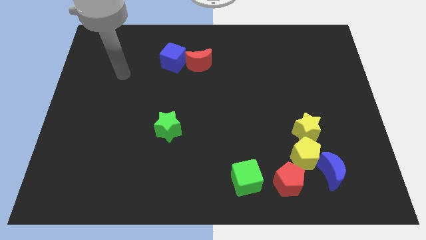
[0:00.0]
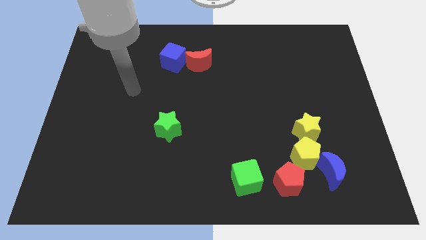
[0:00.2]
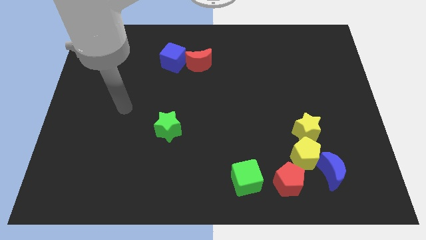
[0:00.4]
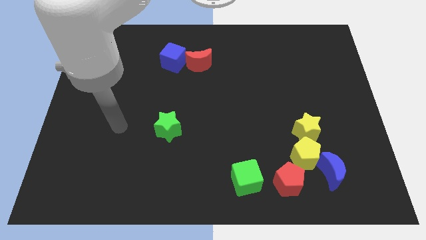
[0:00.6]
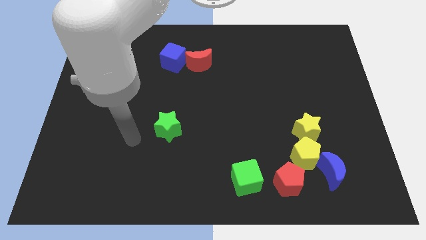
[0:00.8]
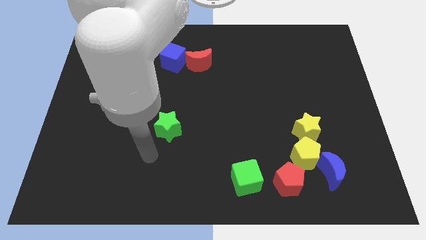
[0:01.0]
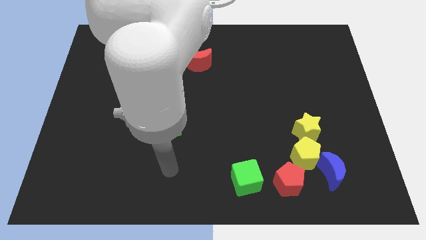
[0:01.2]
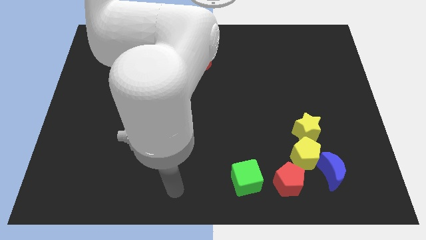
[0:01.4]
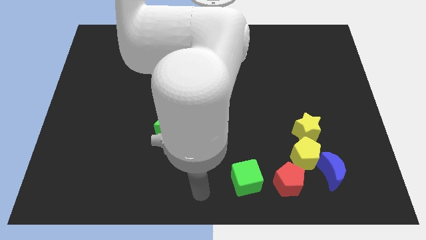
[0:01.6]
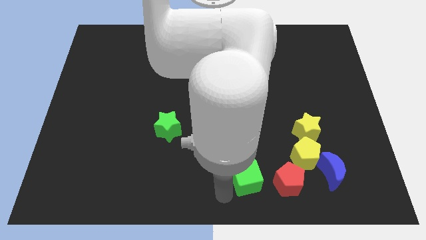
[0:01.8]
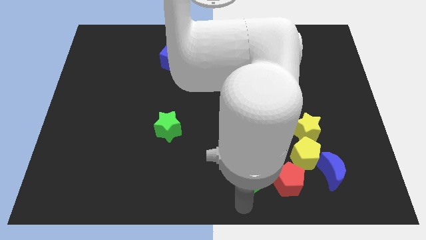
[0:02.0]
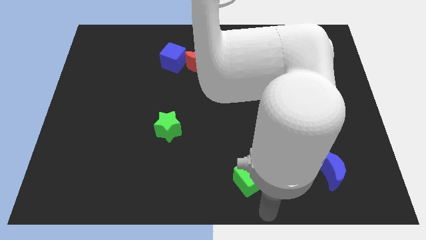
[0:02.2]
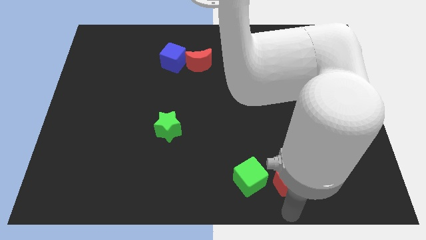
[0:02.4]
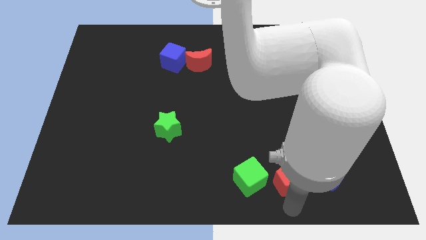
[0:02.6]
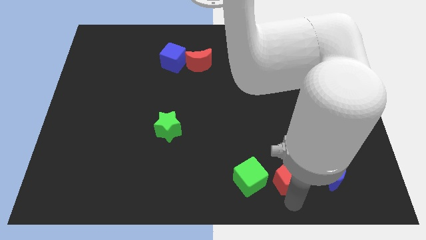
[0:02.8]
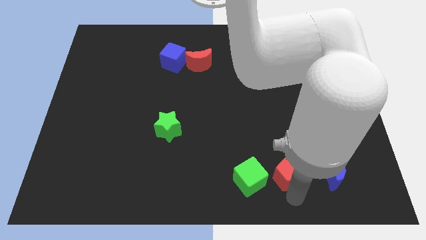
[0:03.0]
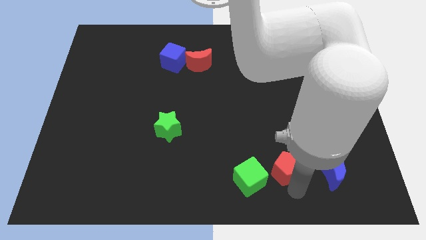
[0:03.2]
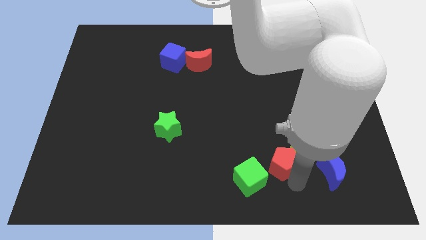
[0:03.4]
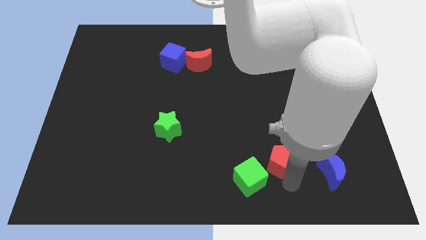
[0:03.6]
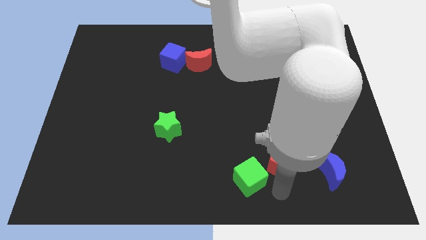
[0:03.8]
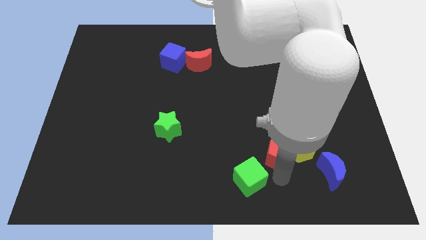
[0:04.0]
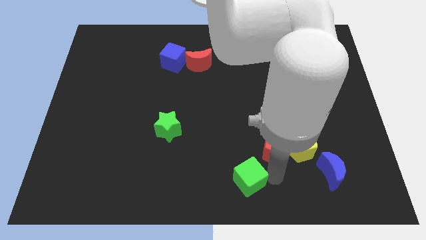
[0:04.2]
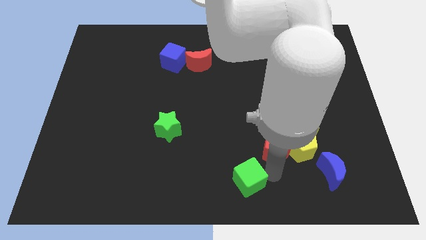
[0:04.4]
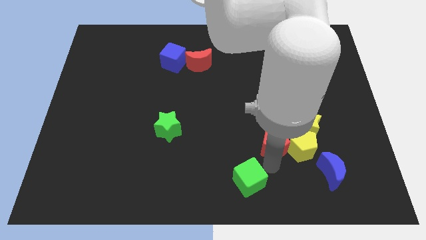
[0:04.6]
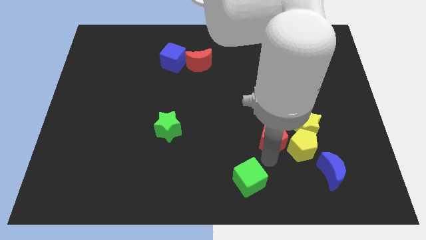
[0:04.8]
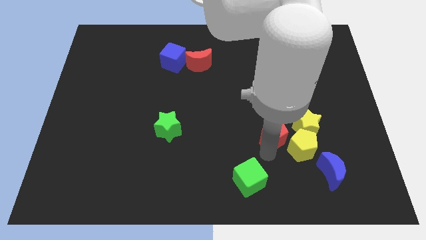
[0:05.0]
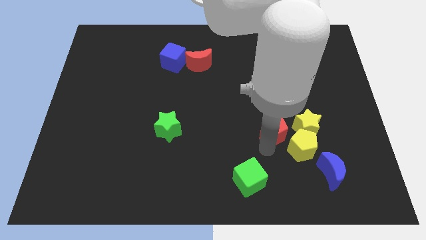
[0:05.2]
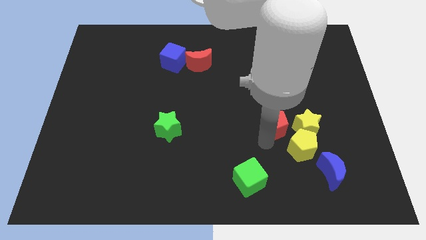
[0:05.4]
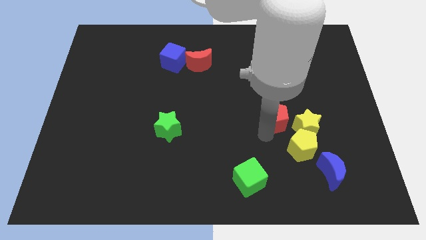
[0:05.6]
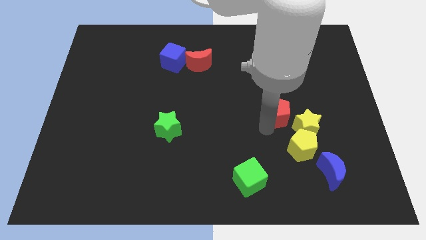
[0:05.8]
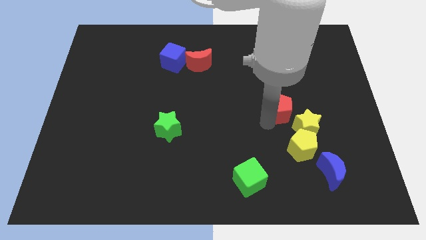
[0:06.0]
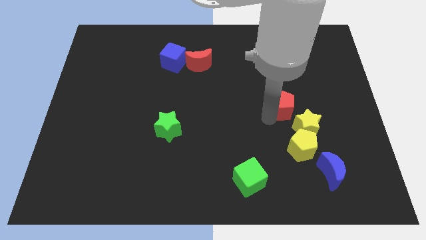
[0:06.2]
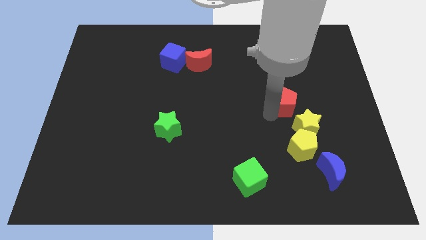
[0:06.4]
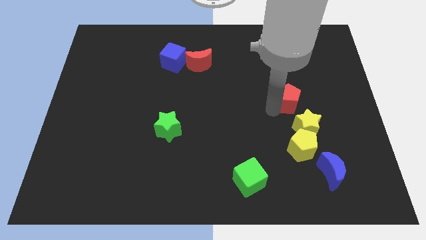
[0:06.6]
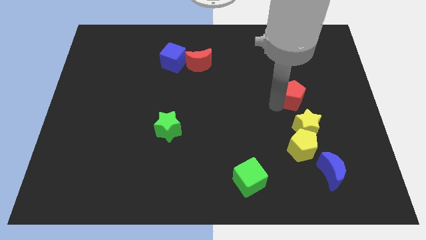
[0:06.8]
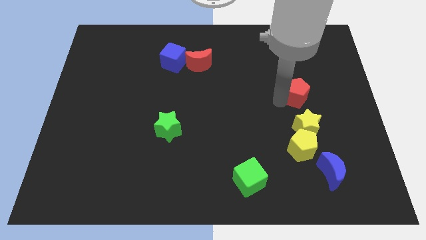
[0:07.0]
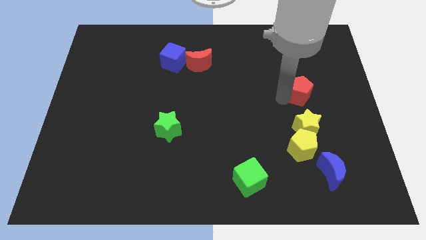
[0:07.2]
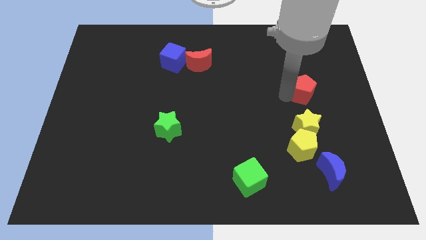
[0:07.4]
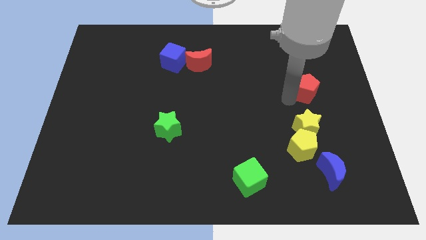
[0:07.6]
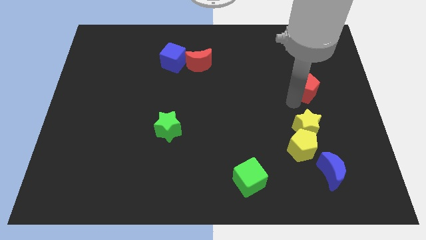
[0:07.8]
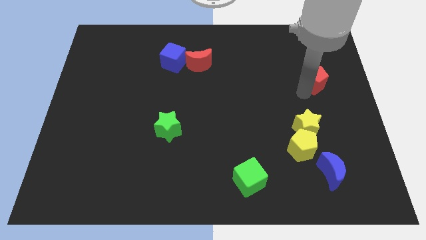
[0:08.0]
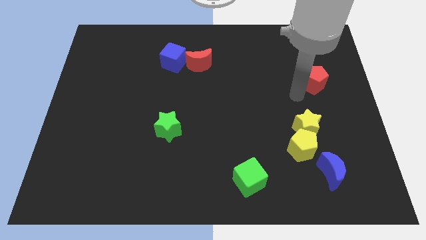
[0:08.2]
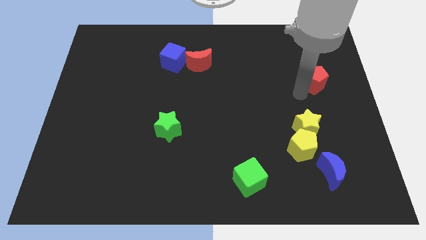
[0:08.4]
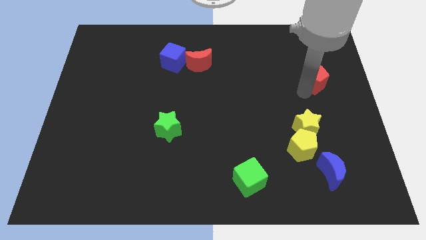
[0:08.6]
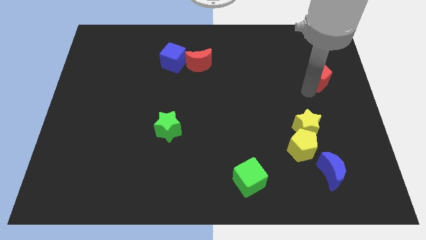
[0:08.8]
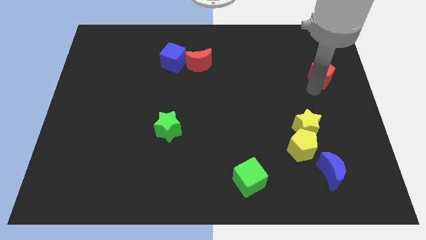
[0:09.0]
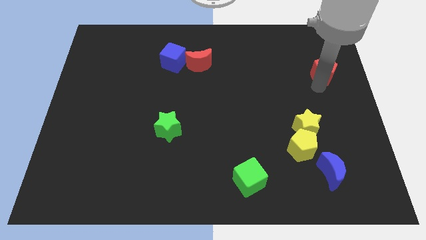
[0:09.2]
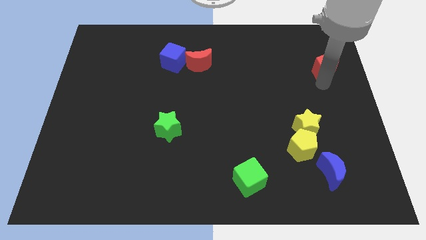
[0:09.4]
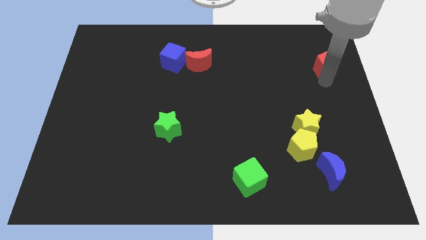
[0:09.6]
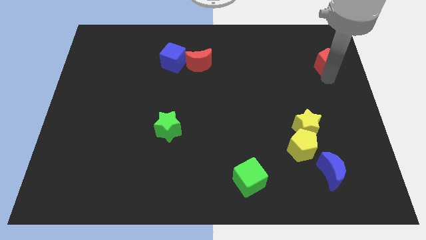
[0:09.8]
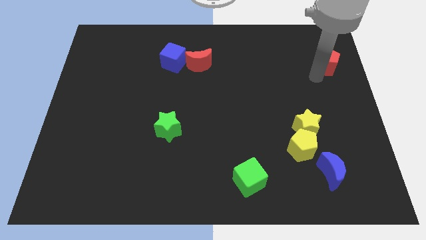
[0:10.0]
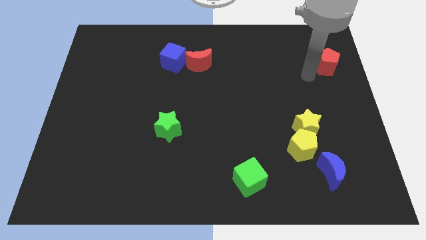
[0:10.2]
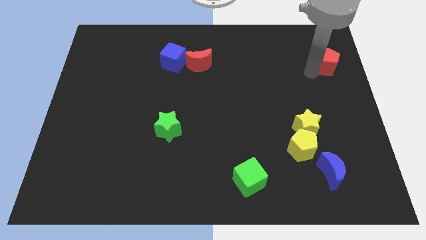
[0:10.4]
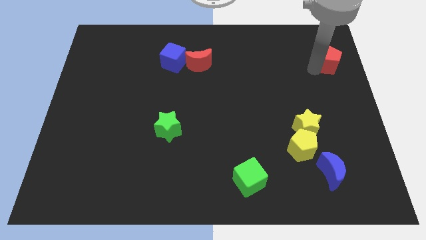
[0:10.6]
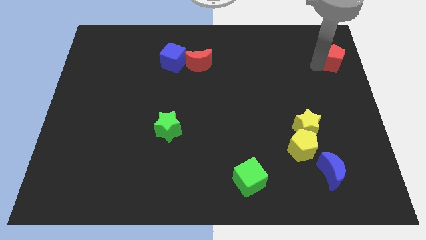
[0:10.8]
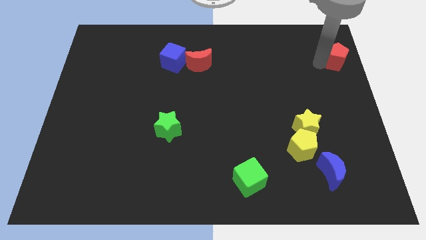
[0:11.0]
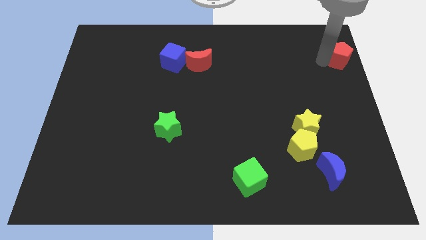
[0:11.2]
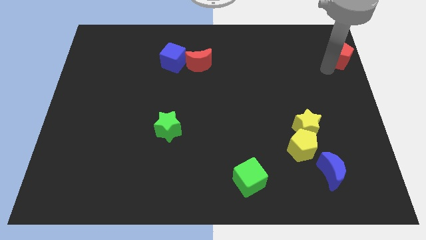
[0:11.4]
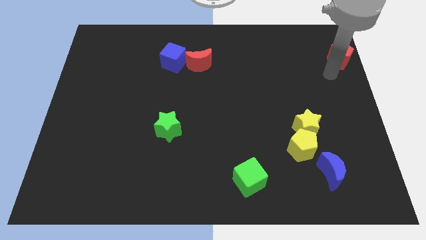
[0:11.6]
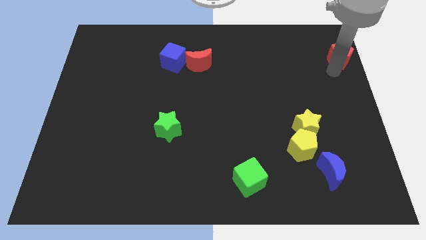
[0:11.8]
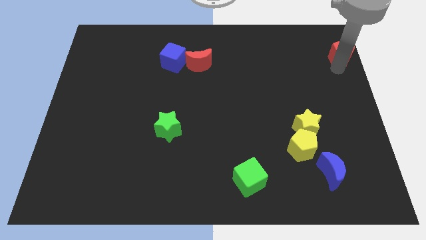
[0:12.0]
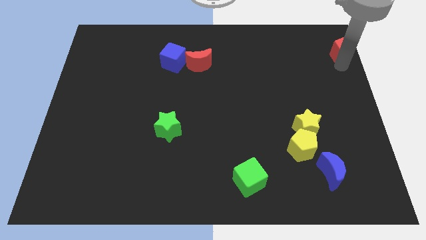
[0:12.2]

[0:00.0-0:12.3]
move the red pentagon to the top right
